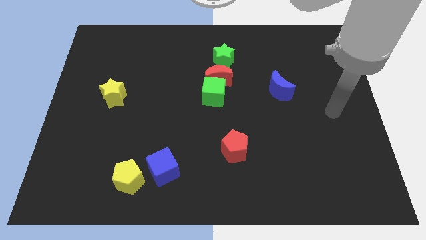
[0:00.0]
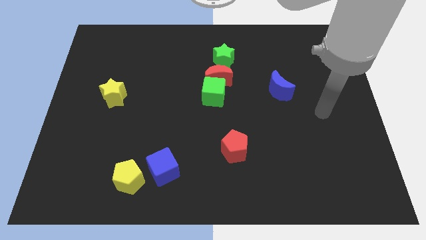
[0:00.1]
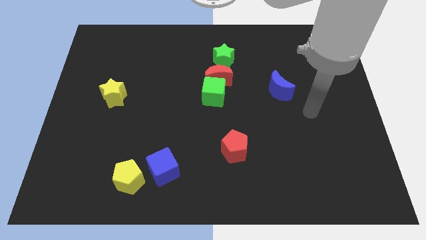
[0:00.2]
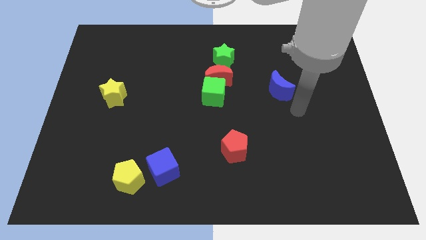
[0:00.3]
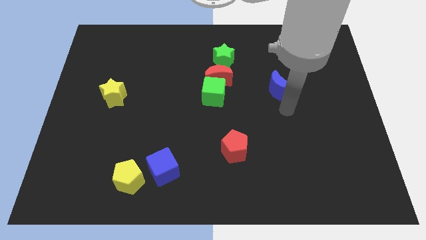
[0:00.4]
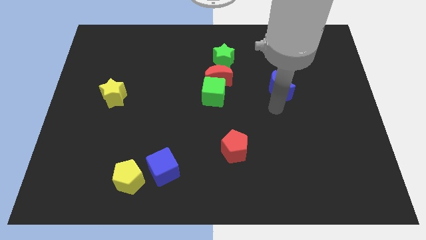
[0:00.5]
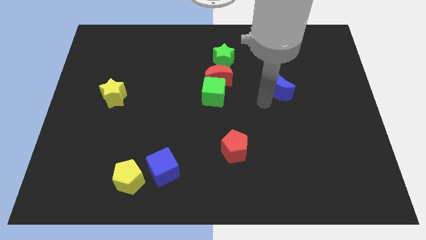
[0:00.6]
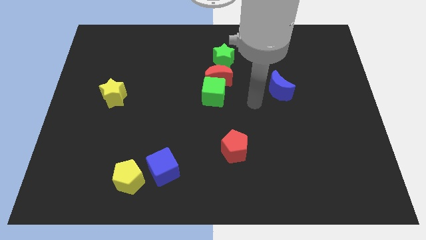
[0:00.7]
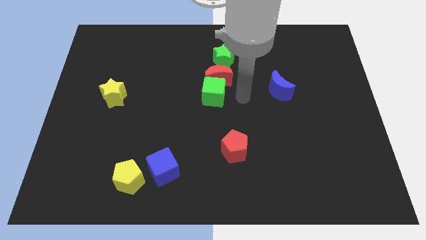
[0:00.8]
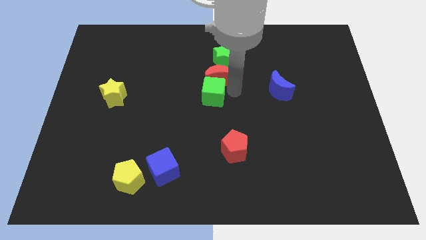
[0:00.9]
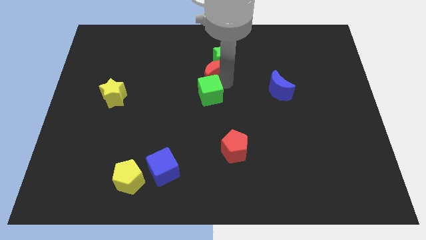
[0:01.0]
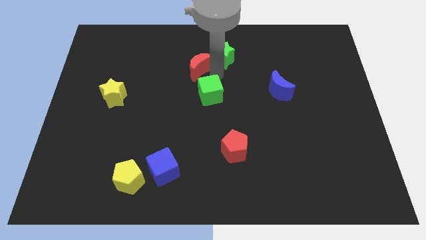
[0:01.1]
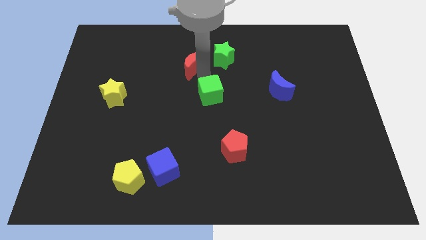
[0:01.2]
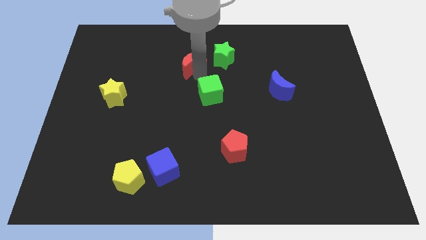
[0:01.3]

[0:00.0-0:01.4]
separate the green cube from the red moon

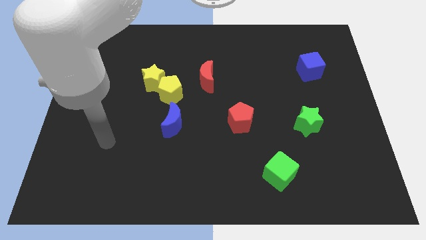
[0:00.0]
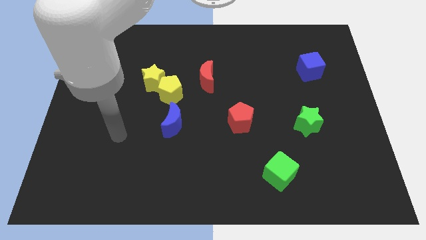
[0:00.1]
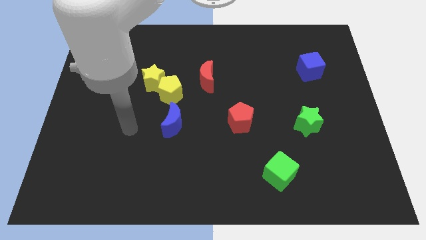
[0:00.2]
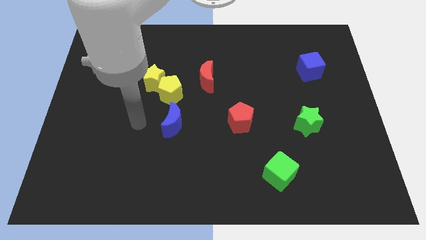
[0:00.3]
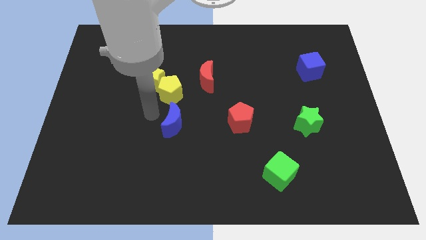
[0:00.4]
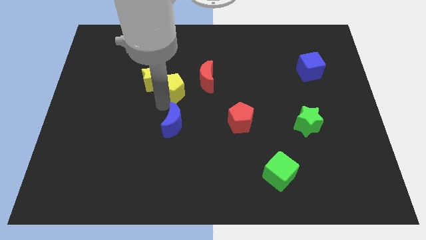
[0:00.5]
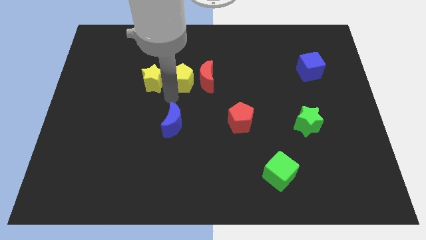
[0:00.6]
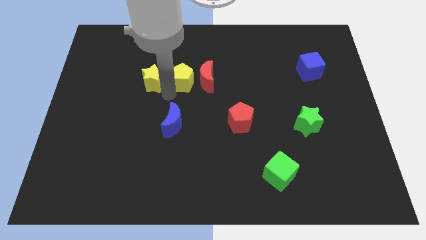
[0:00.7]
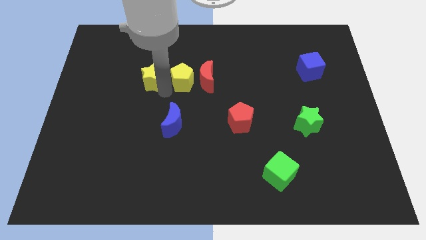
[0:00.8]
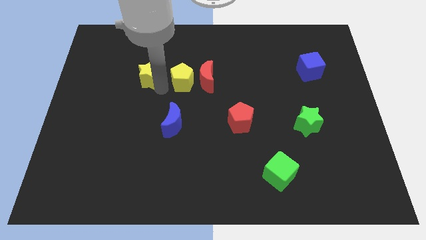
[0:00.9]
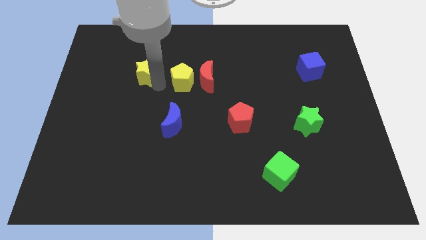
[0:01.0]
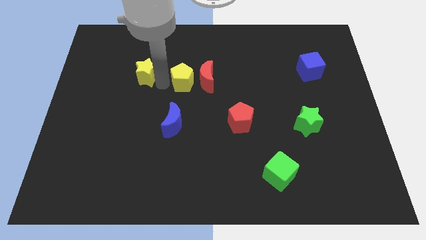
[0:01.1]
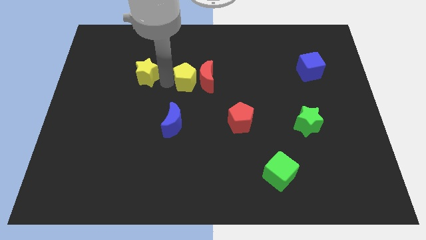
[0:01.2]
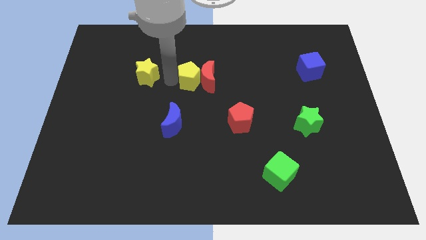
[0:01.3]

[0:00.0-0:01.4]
move the yellow star away from the yellow pentagon

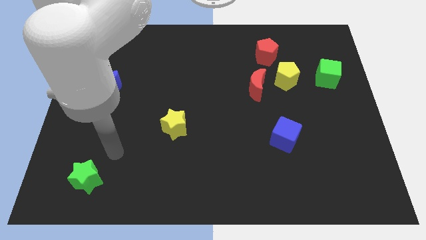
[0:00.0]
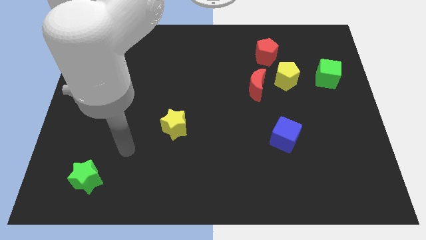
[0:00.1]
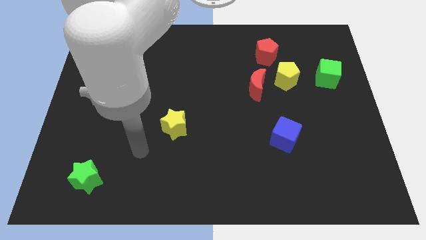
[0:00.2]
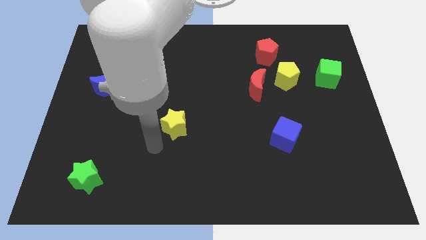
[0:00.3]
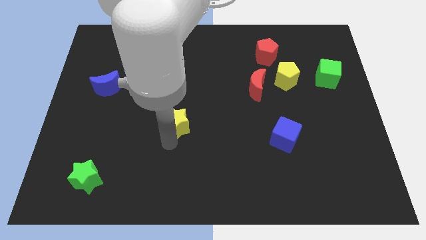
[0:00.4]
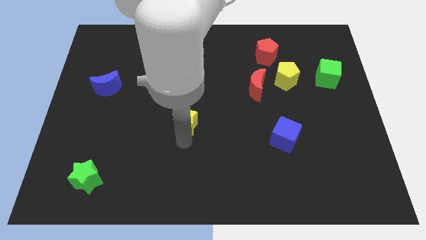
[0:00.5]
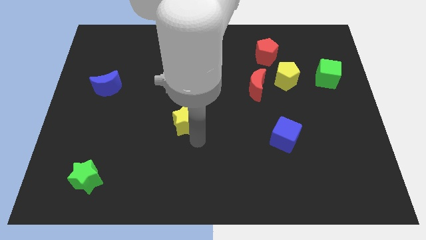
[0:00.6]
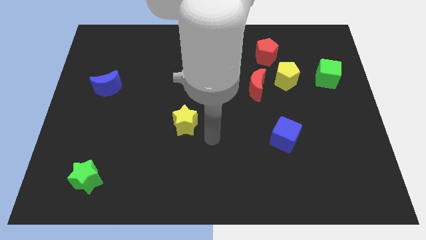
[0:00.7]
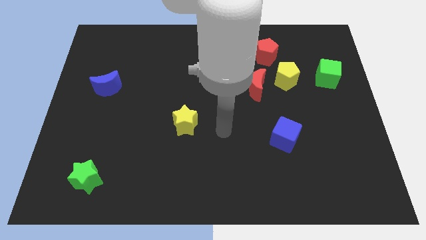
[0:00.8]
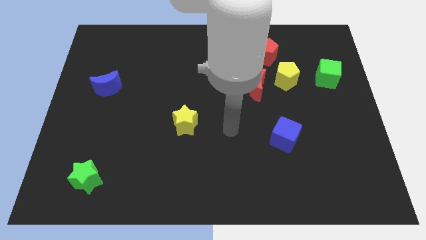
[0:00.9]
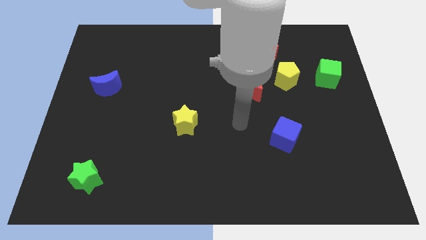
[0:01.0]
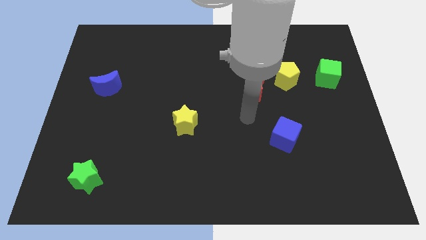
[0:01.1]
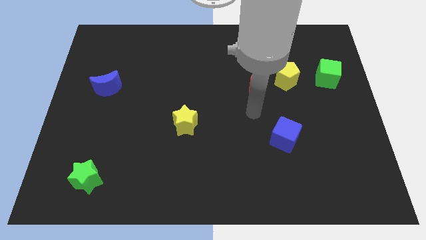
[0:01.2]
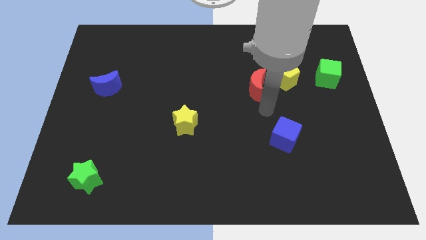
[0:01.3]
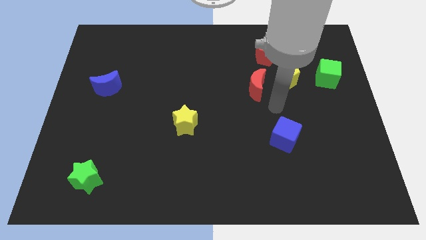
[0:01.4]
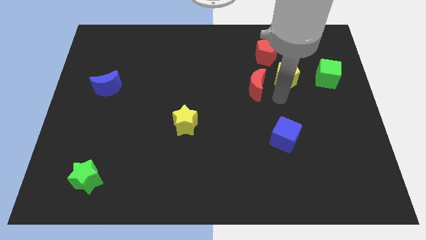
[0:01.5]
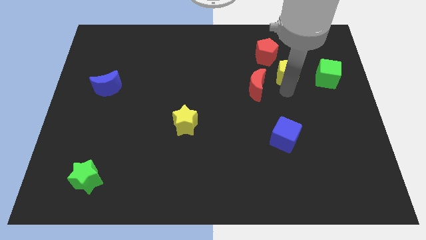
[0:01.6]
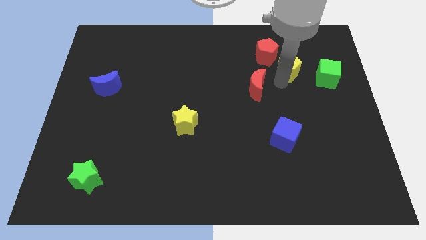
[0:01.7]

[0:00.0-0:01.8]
pull the red moon apart from the yellow pentagon

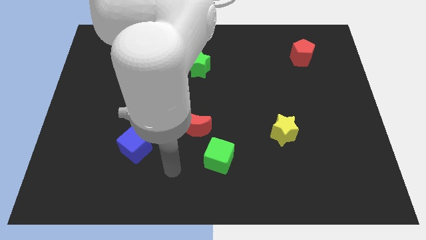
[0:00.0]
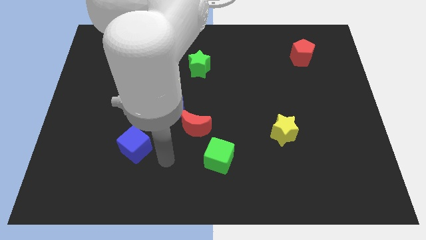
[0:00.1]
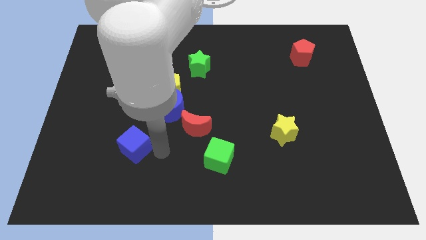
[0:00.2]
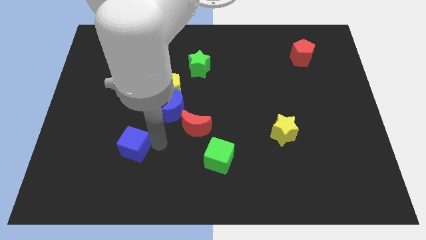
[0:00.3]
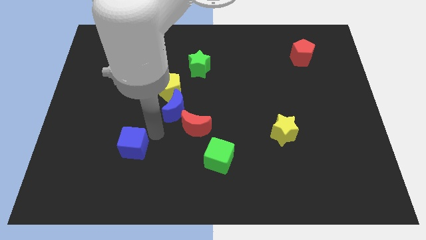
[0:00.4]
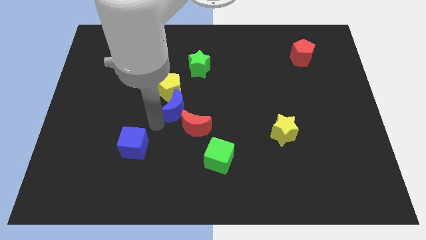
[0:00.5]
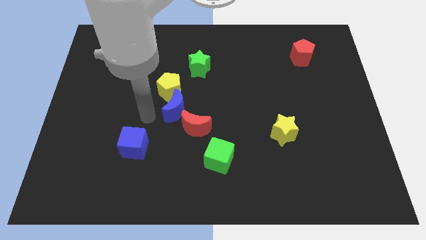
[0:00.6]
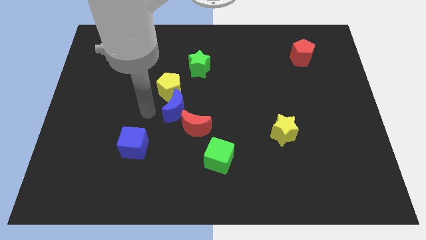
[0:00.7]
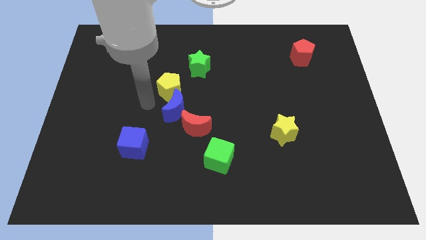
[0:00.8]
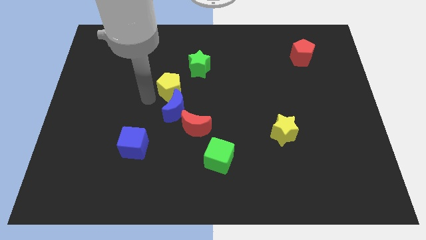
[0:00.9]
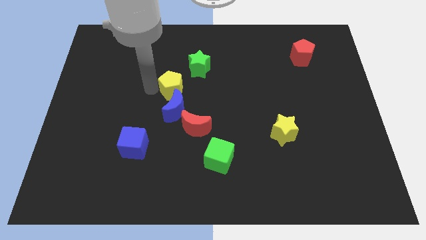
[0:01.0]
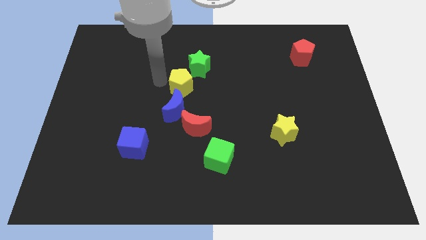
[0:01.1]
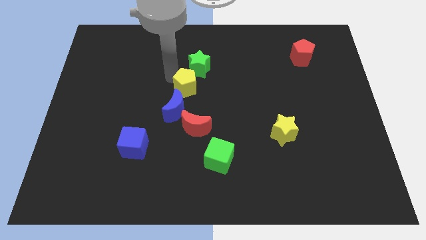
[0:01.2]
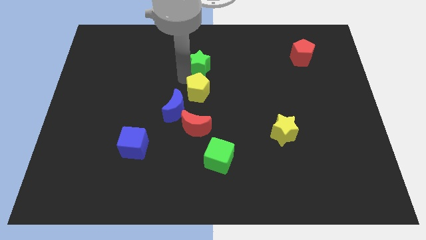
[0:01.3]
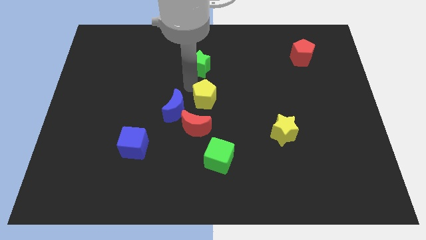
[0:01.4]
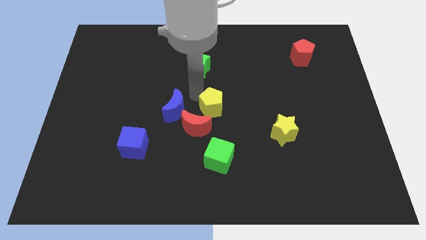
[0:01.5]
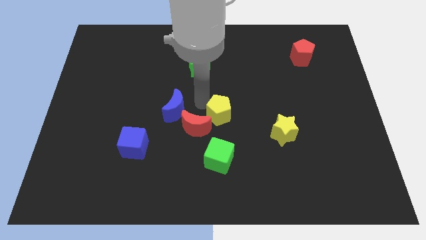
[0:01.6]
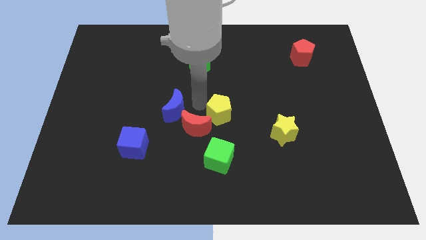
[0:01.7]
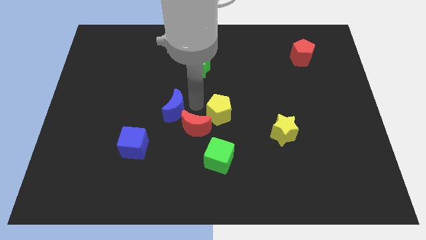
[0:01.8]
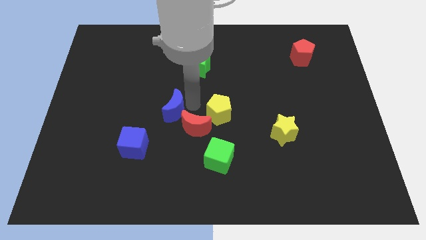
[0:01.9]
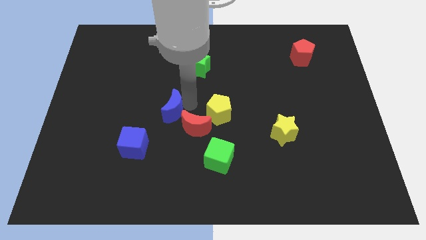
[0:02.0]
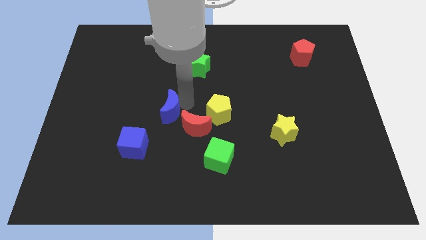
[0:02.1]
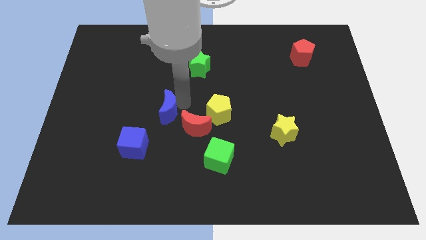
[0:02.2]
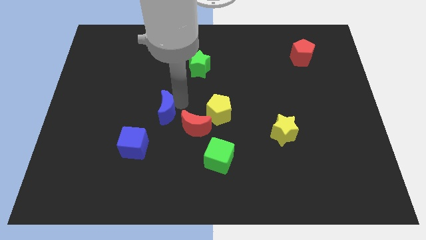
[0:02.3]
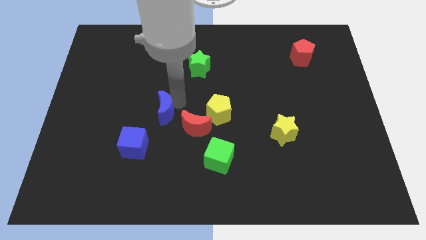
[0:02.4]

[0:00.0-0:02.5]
move the blue moon away from the yellow pentagon and red moon

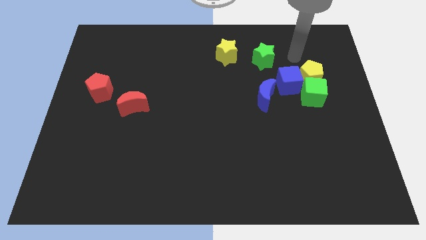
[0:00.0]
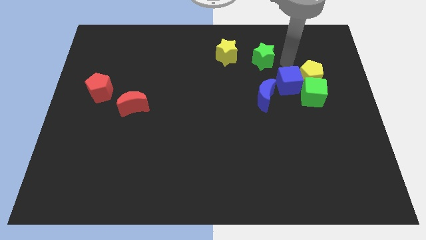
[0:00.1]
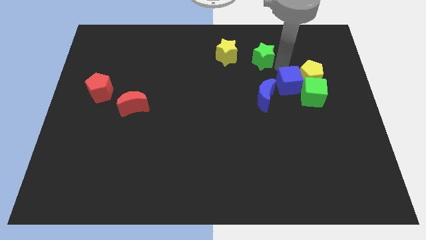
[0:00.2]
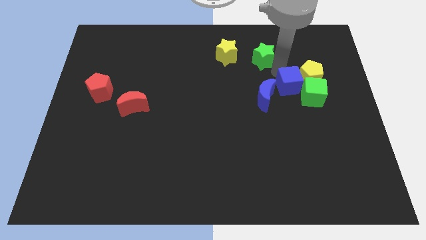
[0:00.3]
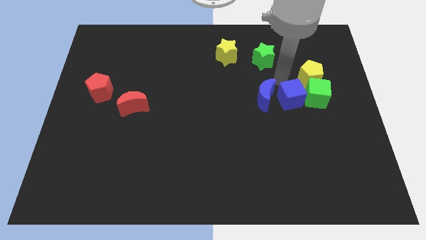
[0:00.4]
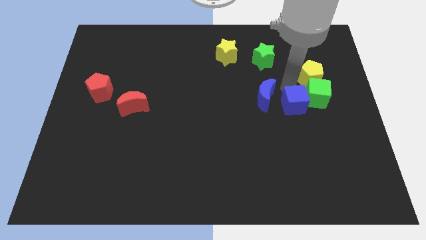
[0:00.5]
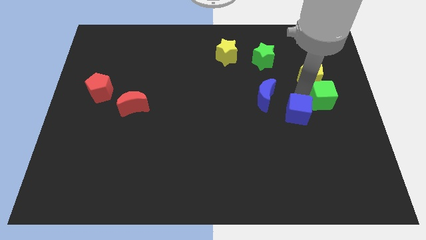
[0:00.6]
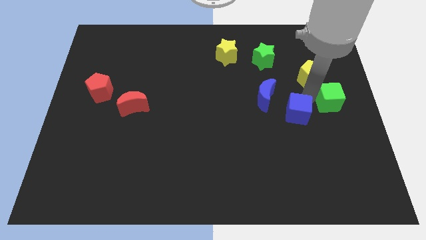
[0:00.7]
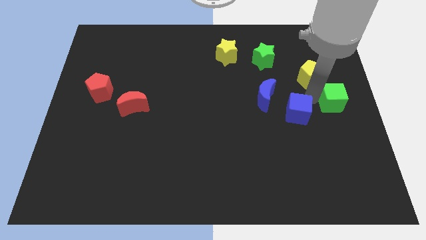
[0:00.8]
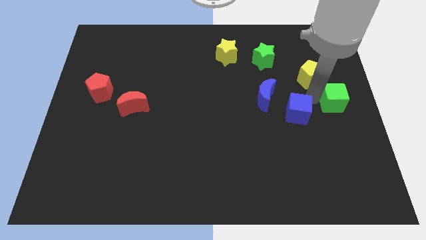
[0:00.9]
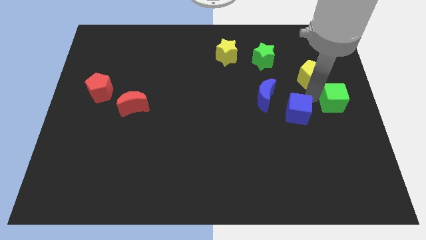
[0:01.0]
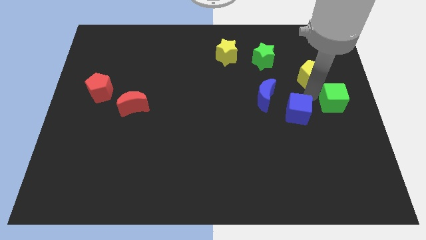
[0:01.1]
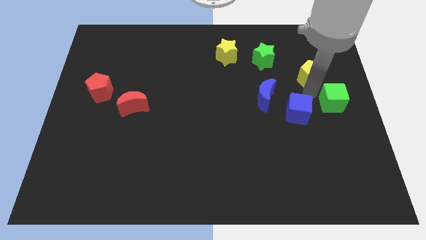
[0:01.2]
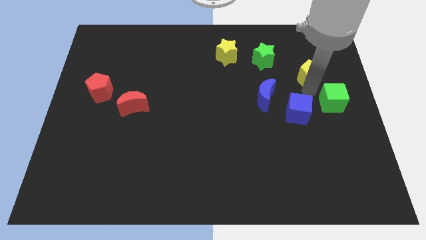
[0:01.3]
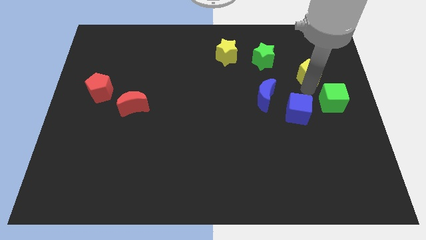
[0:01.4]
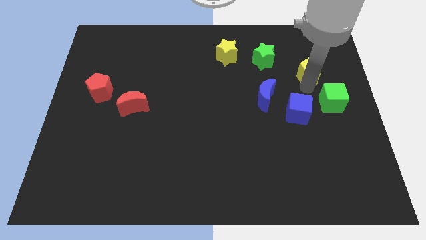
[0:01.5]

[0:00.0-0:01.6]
move the yellow pentagon away from the green cube and blue cube

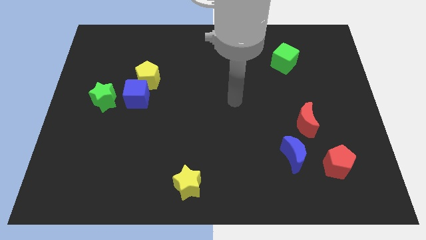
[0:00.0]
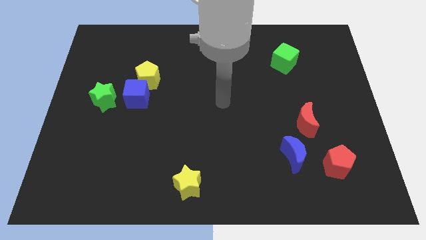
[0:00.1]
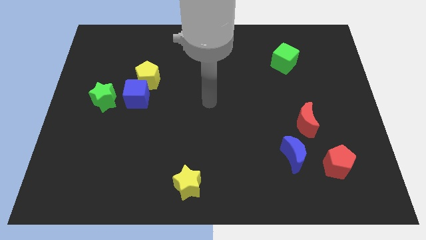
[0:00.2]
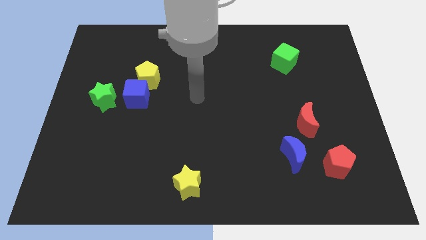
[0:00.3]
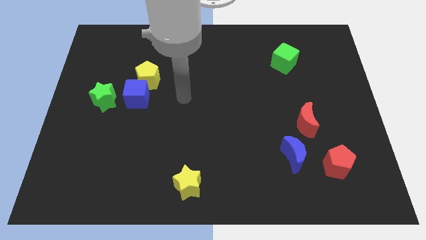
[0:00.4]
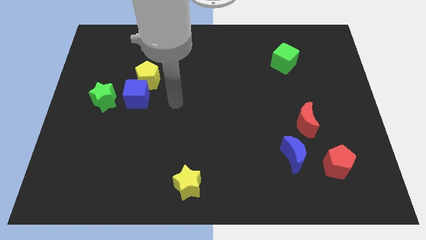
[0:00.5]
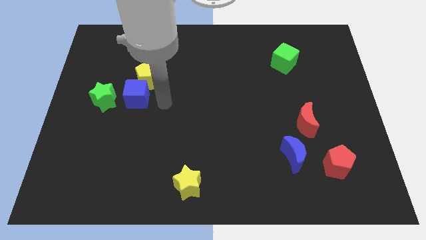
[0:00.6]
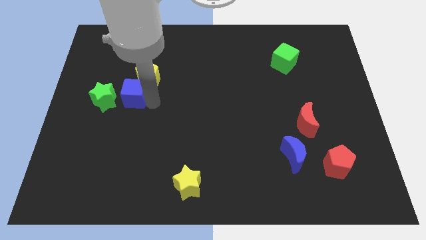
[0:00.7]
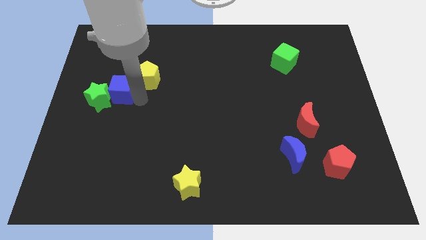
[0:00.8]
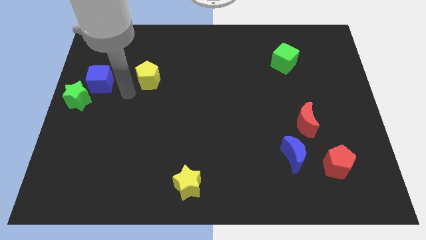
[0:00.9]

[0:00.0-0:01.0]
move the yellow pentagon away from the blue cube
